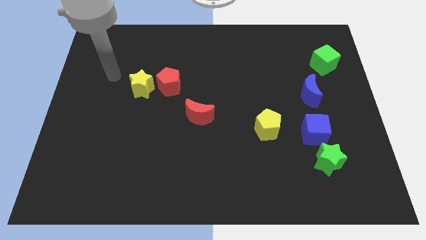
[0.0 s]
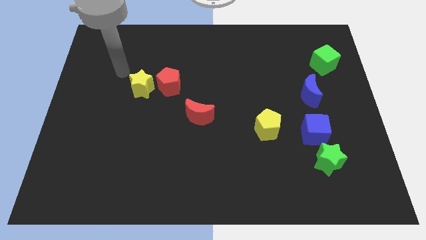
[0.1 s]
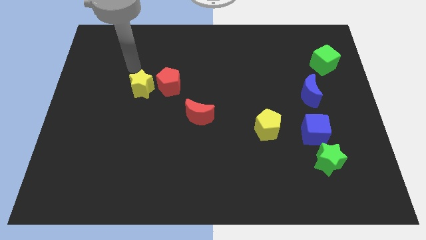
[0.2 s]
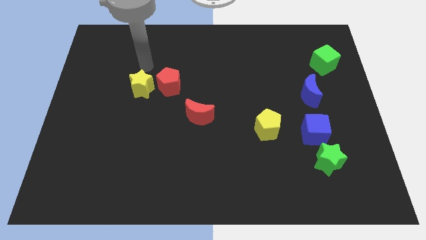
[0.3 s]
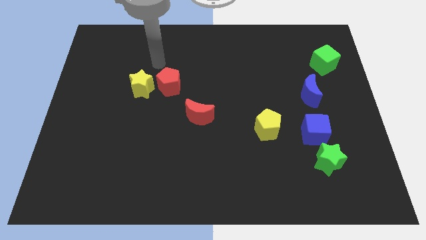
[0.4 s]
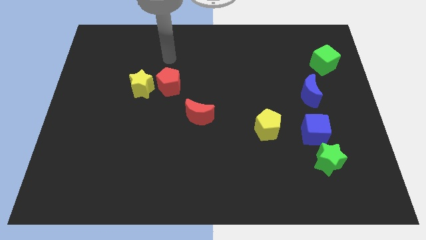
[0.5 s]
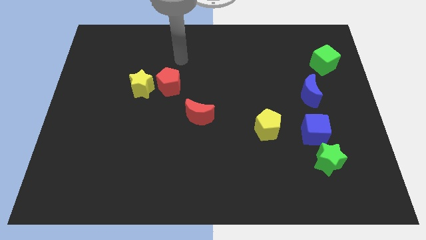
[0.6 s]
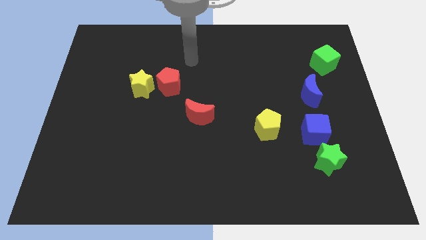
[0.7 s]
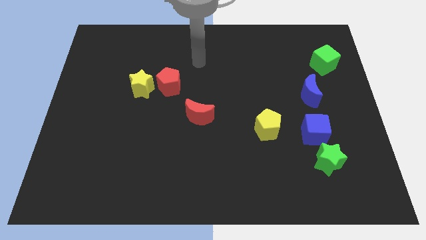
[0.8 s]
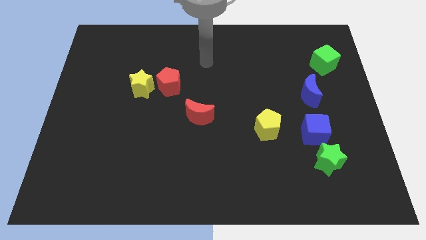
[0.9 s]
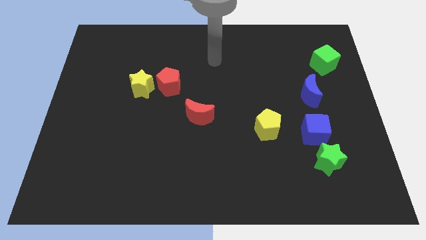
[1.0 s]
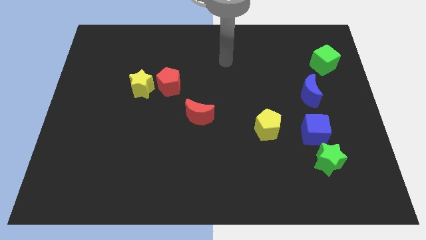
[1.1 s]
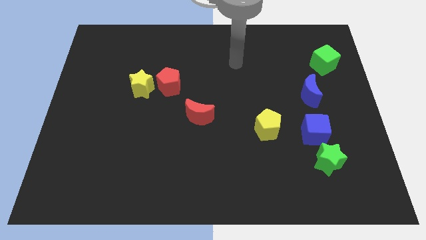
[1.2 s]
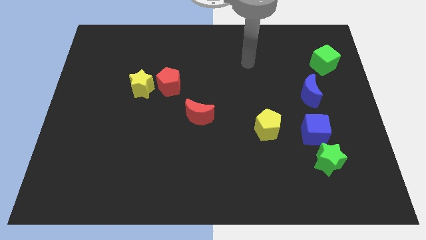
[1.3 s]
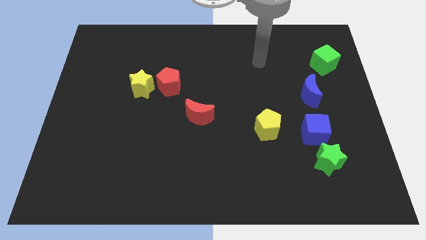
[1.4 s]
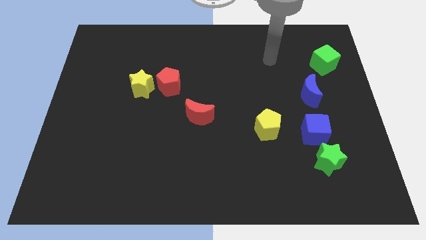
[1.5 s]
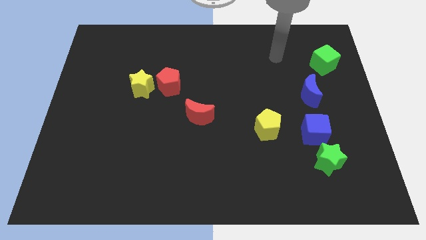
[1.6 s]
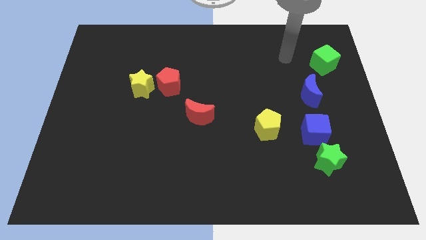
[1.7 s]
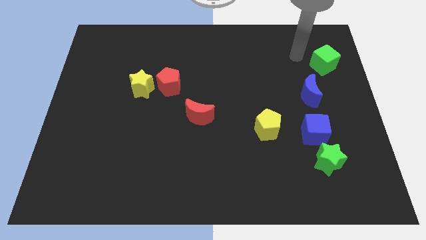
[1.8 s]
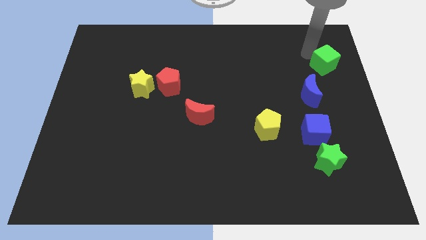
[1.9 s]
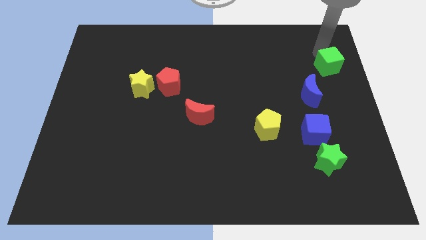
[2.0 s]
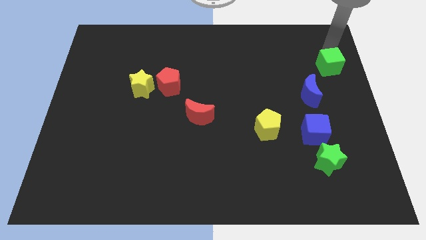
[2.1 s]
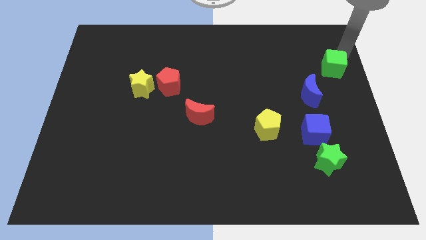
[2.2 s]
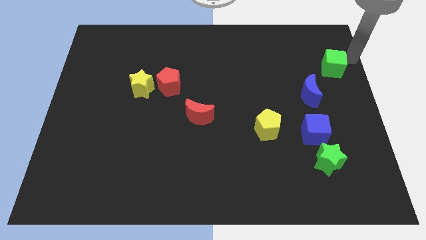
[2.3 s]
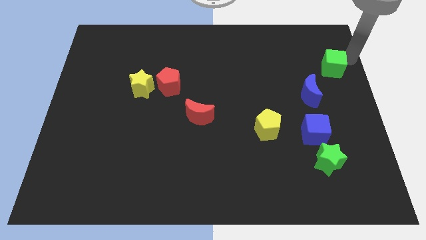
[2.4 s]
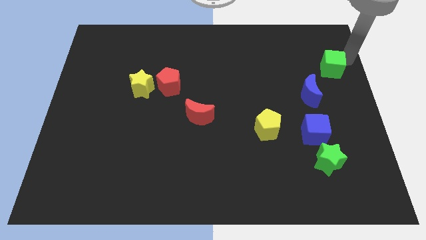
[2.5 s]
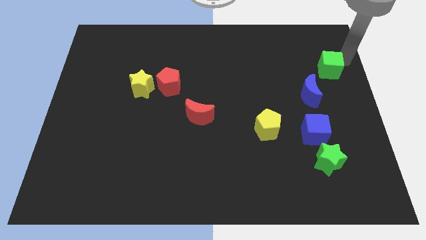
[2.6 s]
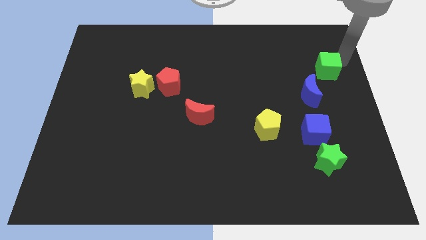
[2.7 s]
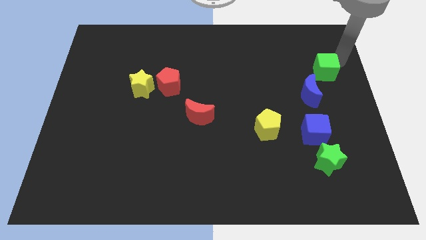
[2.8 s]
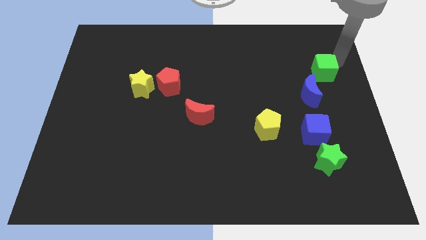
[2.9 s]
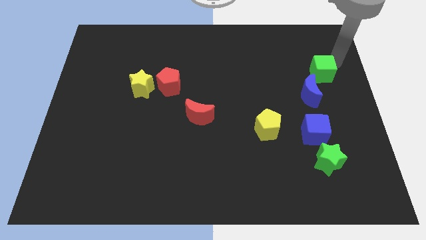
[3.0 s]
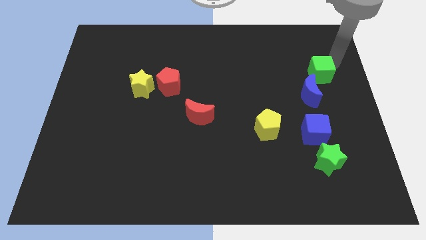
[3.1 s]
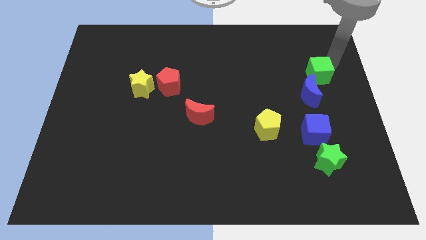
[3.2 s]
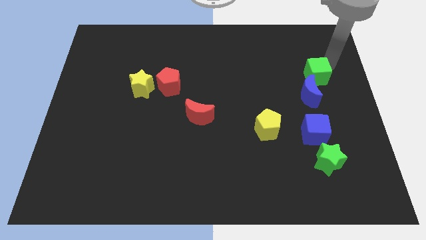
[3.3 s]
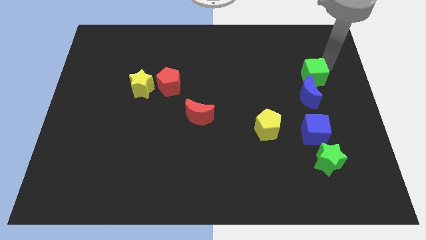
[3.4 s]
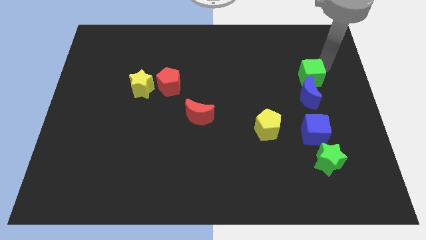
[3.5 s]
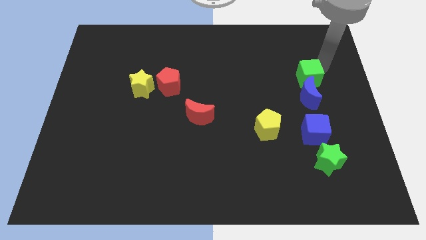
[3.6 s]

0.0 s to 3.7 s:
push the green cube downwards and to the left diagonally a little bit

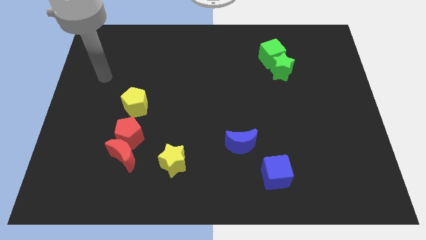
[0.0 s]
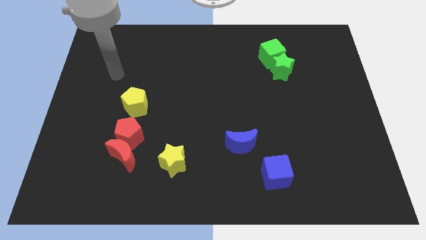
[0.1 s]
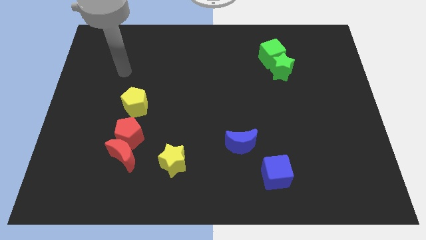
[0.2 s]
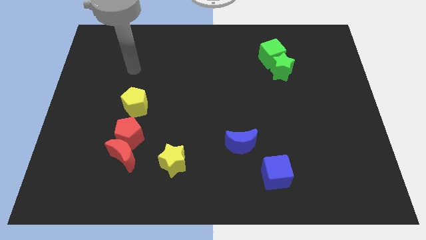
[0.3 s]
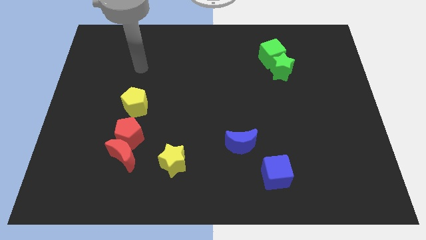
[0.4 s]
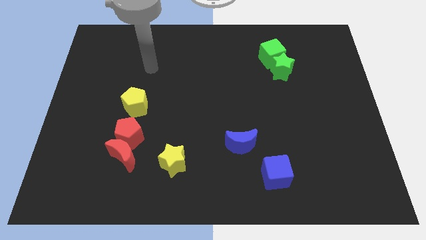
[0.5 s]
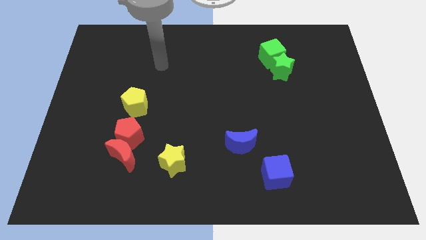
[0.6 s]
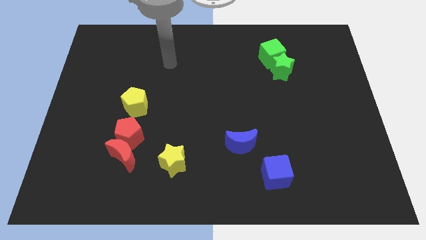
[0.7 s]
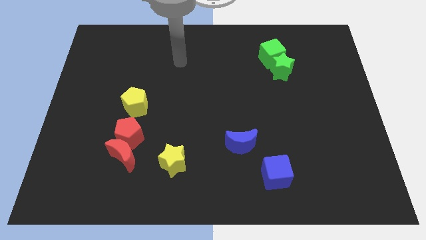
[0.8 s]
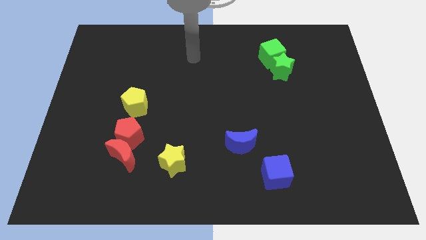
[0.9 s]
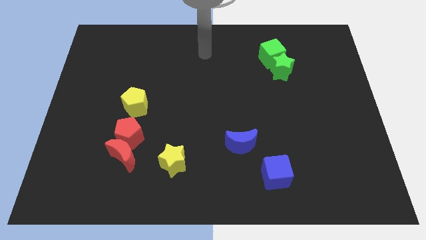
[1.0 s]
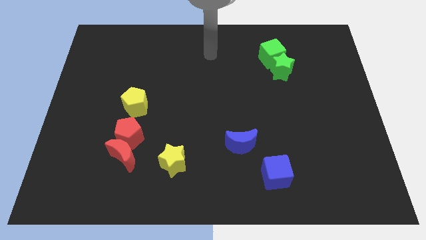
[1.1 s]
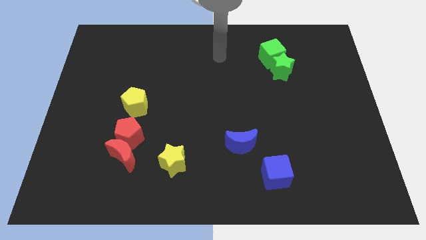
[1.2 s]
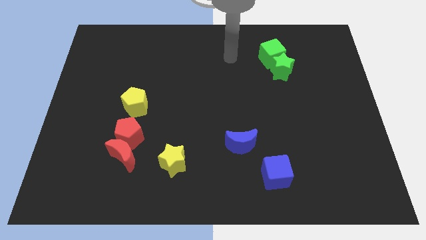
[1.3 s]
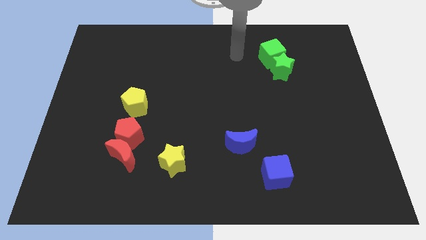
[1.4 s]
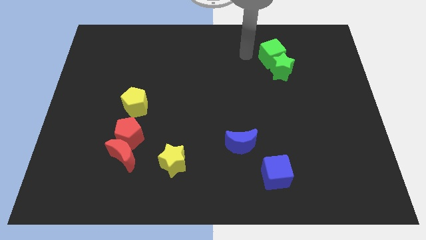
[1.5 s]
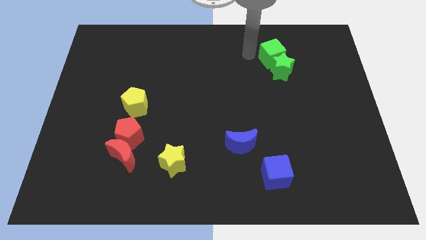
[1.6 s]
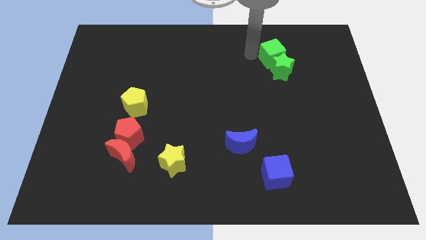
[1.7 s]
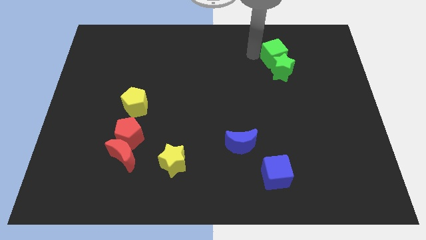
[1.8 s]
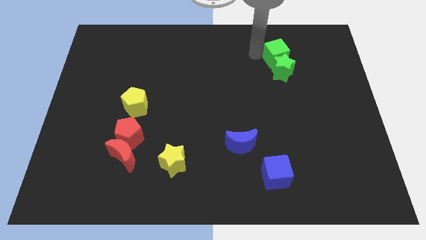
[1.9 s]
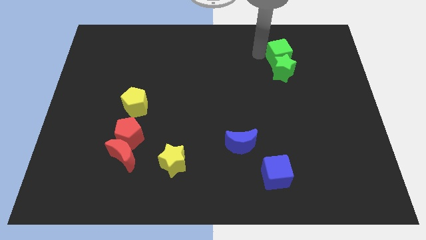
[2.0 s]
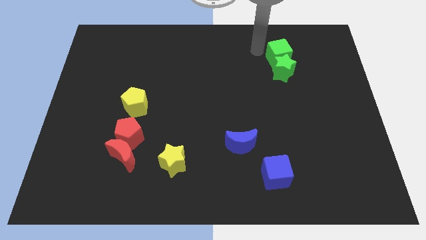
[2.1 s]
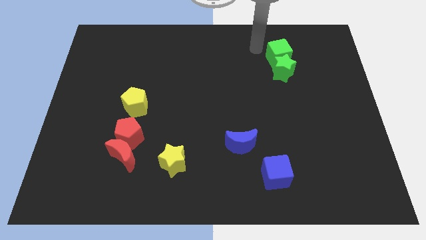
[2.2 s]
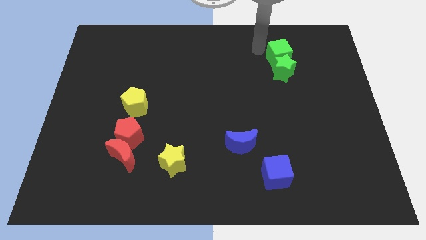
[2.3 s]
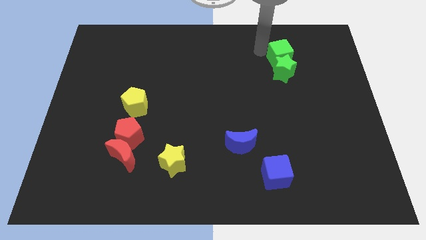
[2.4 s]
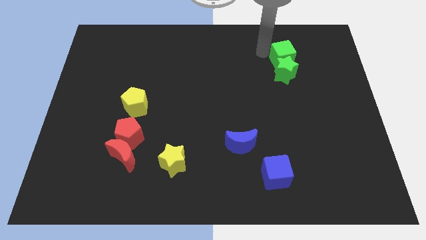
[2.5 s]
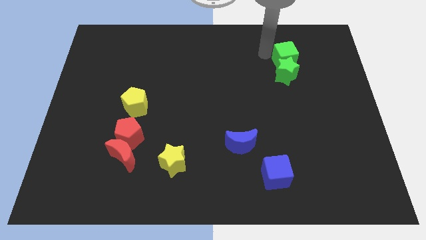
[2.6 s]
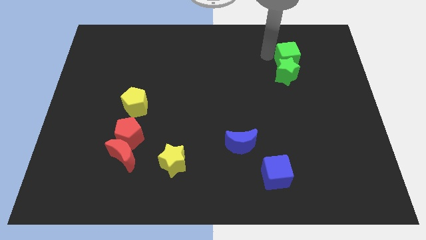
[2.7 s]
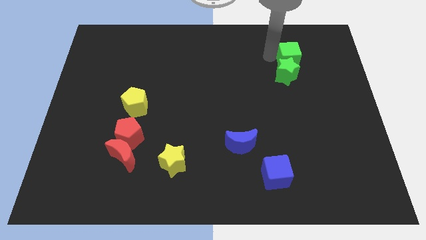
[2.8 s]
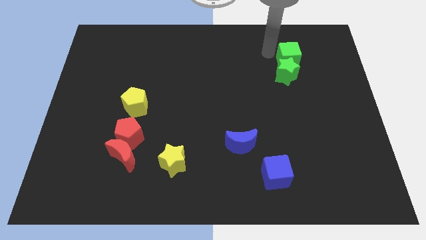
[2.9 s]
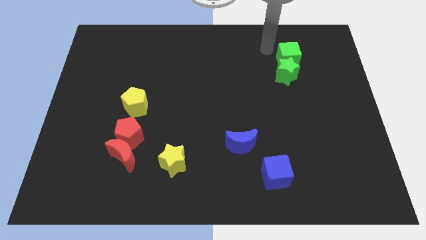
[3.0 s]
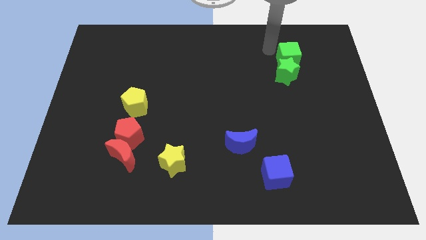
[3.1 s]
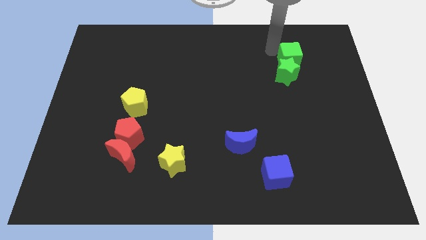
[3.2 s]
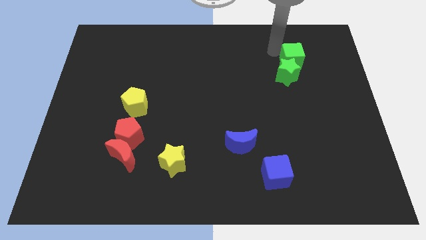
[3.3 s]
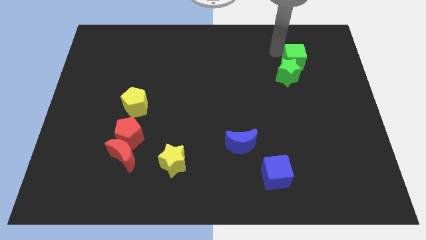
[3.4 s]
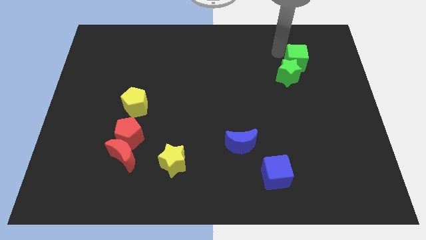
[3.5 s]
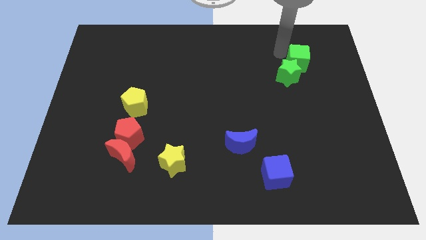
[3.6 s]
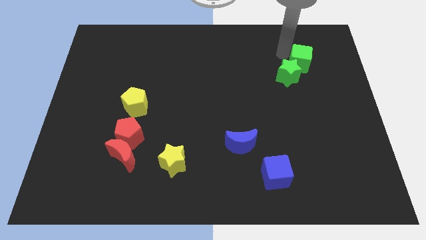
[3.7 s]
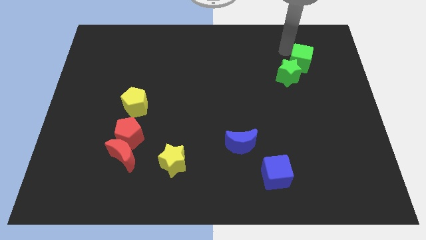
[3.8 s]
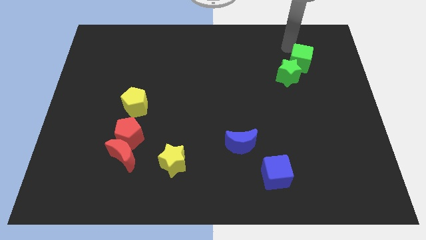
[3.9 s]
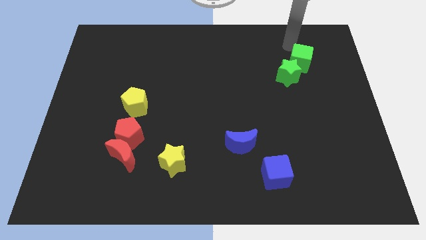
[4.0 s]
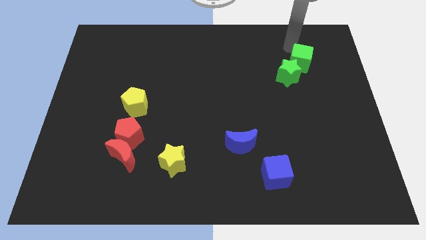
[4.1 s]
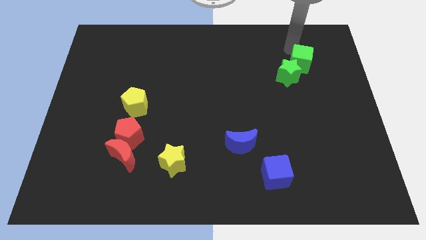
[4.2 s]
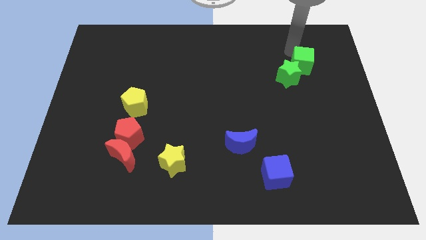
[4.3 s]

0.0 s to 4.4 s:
slide the green cube downwards and right diagonally a bit

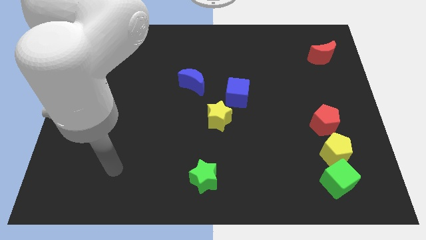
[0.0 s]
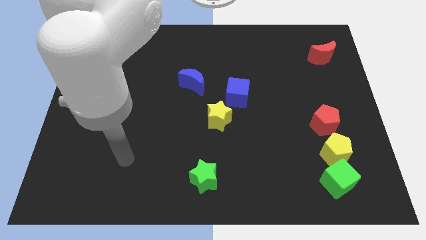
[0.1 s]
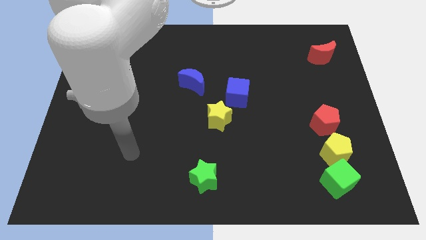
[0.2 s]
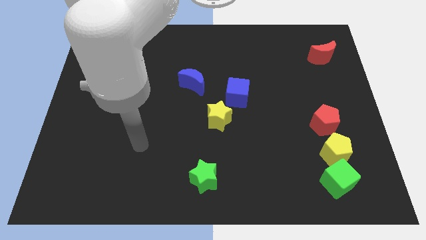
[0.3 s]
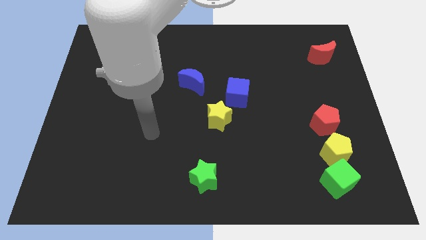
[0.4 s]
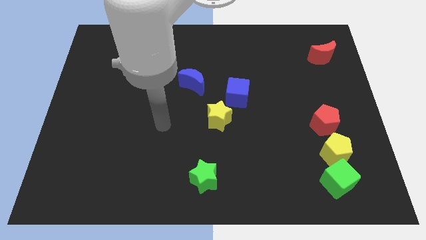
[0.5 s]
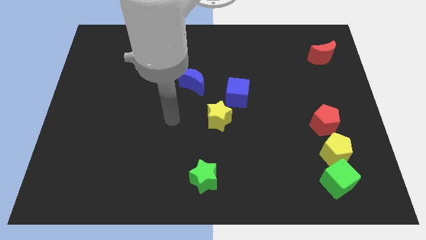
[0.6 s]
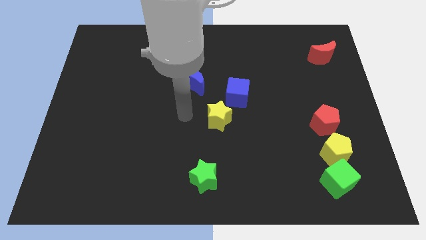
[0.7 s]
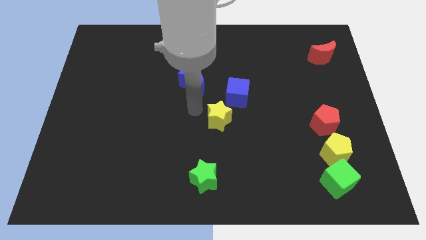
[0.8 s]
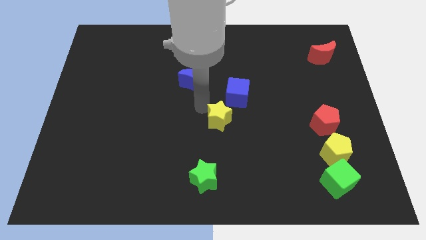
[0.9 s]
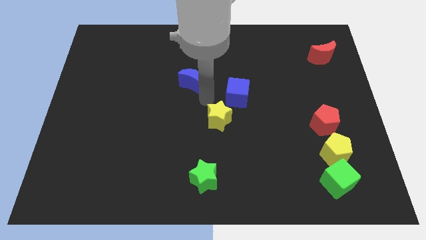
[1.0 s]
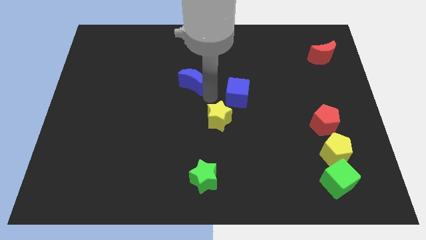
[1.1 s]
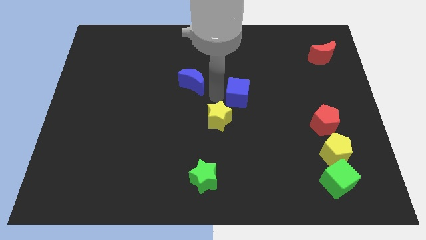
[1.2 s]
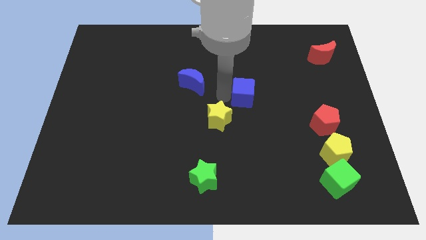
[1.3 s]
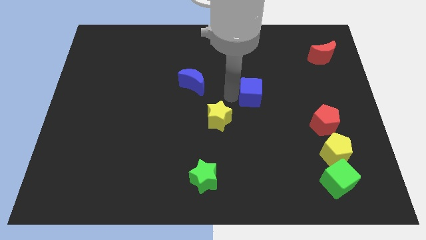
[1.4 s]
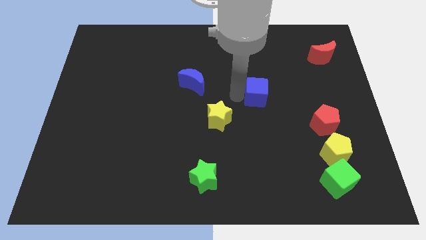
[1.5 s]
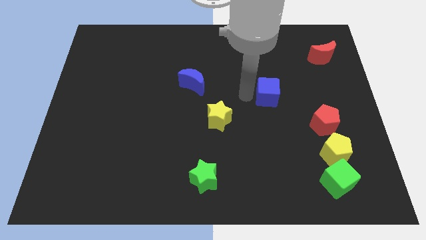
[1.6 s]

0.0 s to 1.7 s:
slightly move the blue cube to the right
